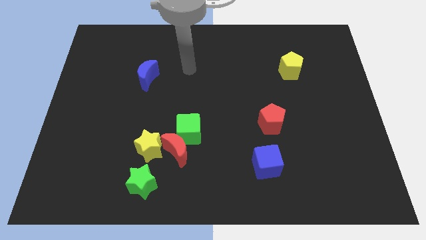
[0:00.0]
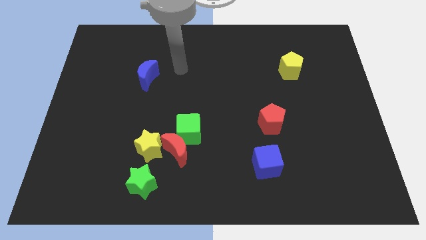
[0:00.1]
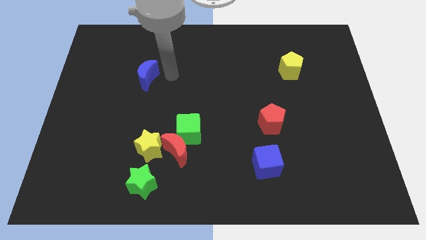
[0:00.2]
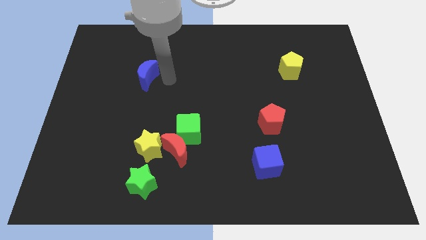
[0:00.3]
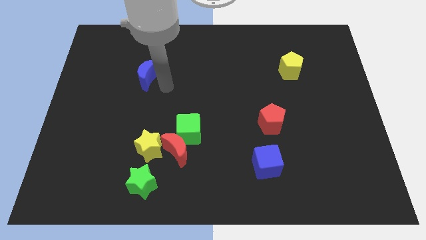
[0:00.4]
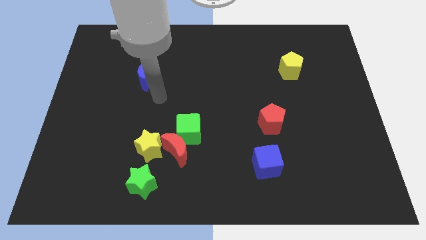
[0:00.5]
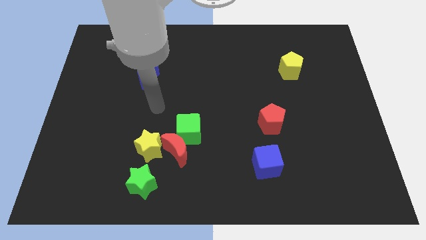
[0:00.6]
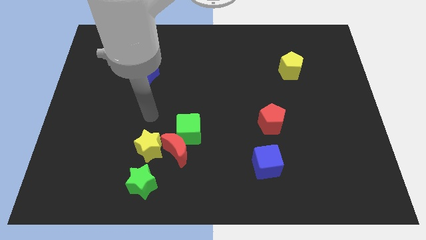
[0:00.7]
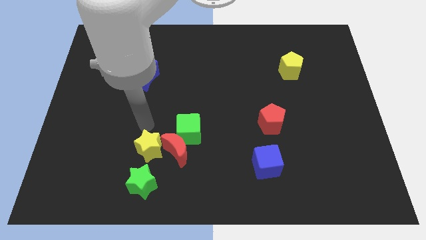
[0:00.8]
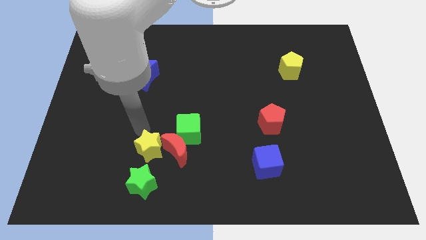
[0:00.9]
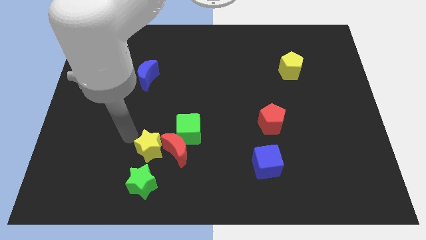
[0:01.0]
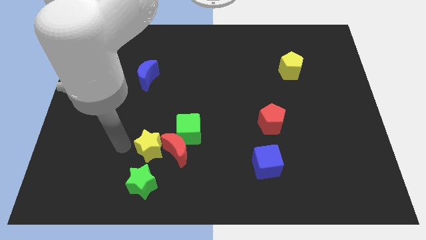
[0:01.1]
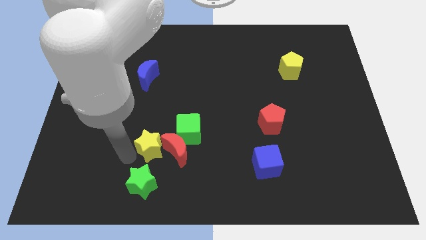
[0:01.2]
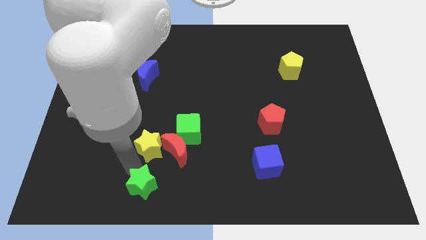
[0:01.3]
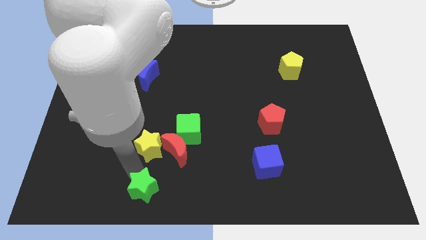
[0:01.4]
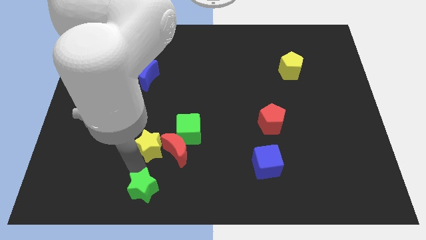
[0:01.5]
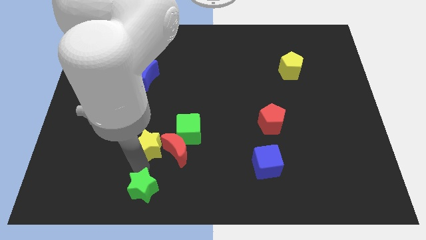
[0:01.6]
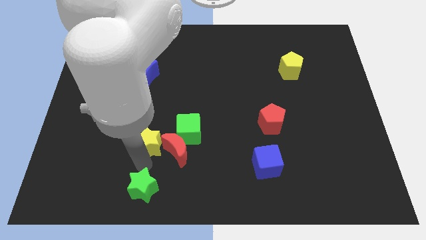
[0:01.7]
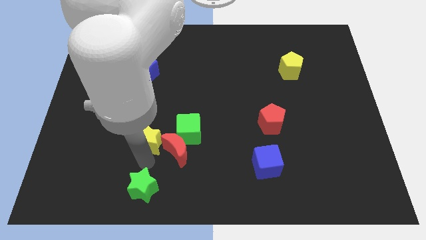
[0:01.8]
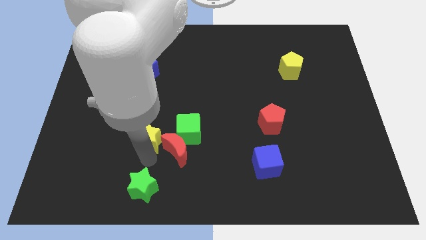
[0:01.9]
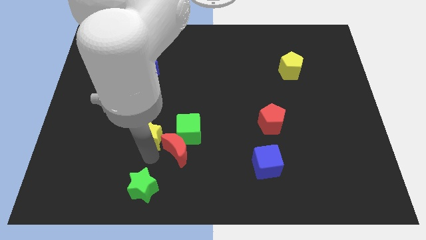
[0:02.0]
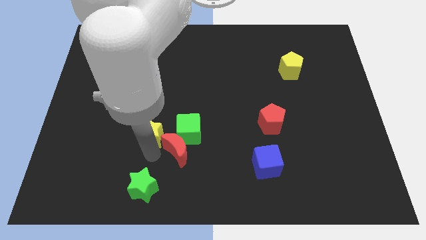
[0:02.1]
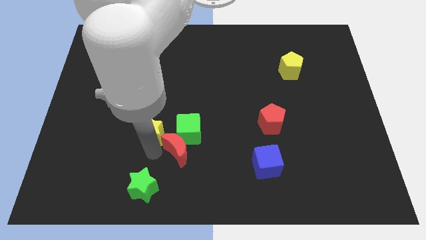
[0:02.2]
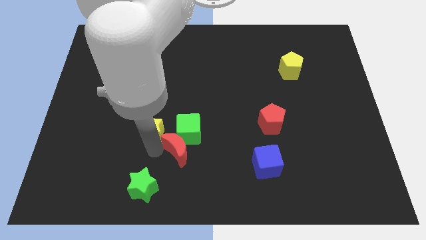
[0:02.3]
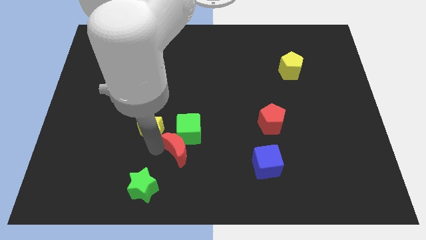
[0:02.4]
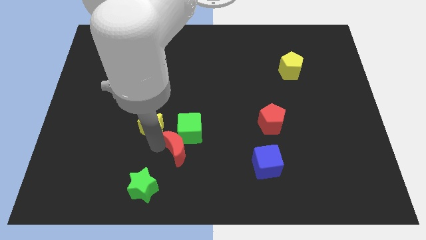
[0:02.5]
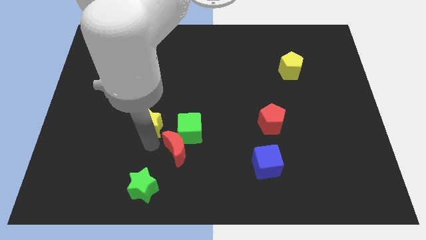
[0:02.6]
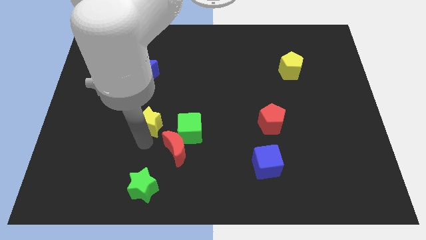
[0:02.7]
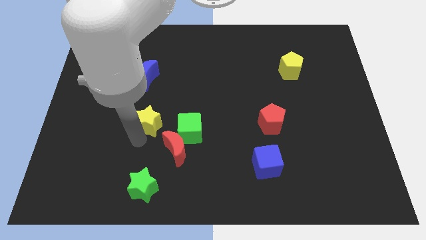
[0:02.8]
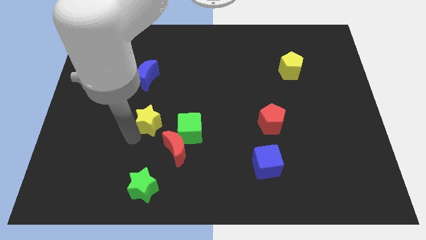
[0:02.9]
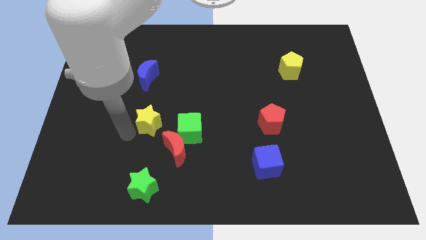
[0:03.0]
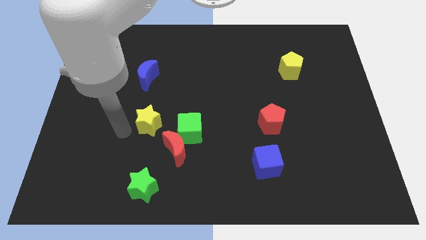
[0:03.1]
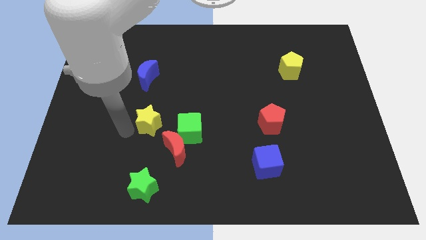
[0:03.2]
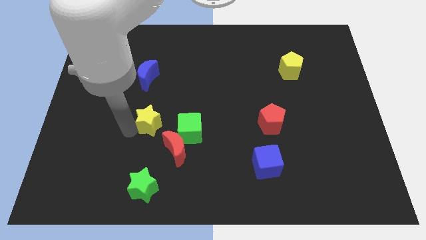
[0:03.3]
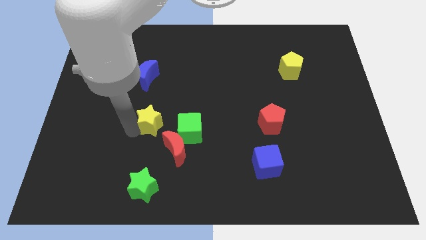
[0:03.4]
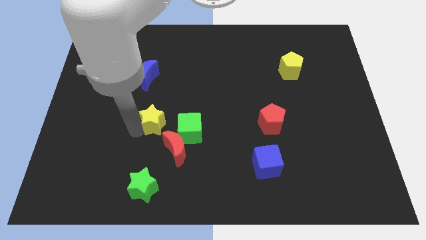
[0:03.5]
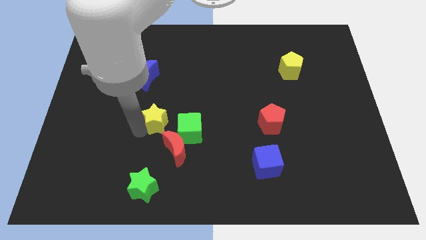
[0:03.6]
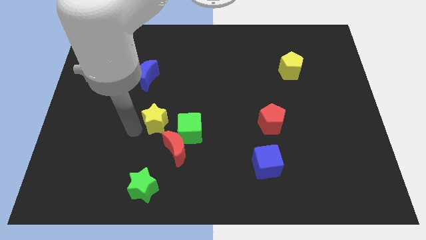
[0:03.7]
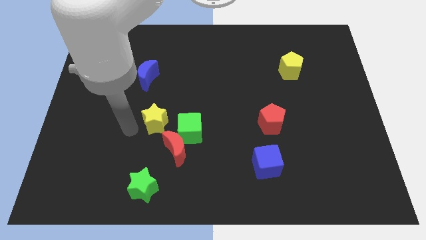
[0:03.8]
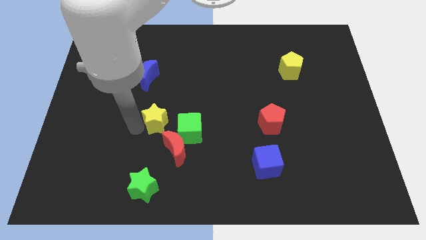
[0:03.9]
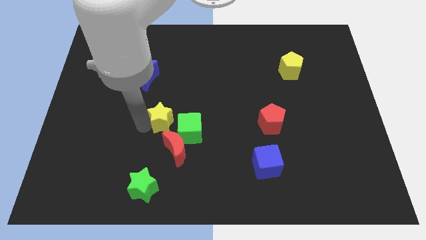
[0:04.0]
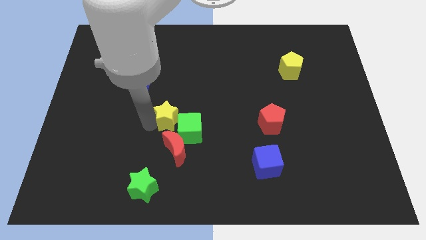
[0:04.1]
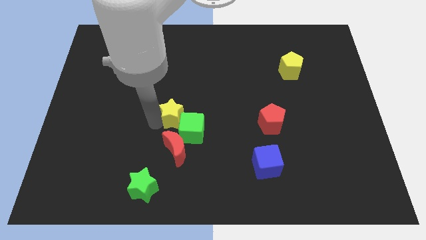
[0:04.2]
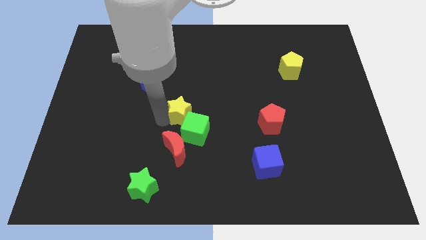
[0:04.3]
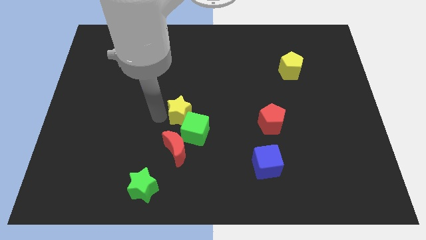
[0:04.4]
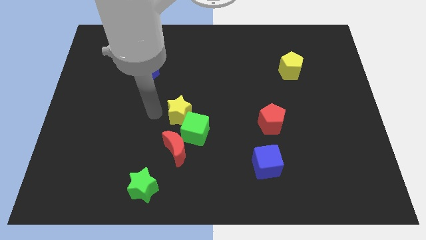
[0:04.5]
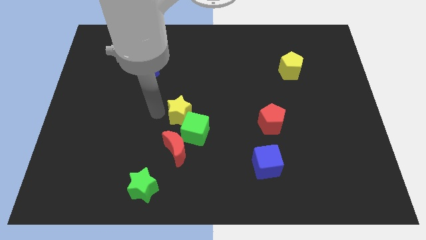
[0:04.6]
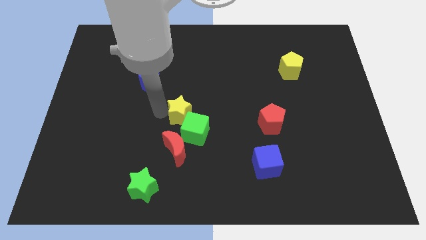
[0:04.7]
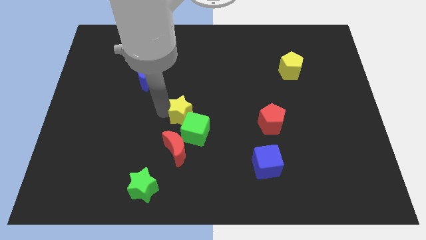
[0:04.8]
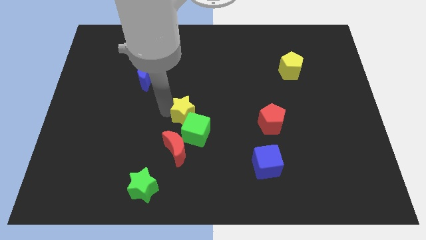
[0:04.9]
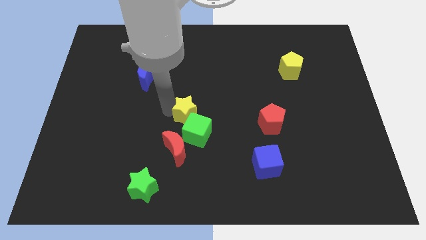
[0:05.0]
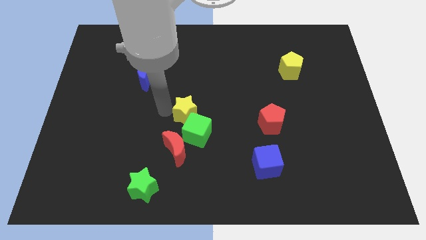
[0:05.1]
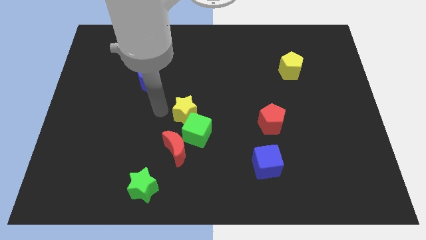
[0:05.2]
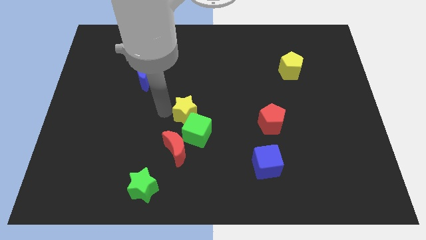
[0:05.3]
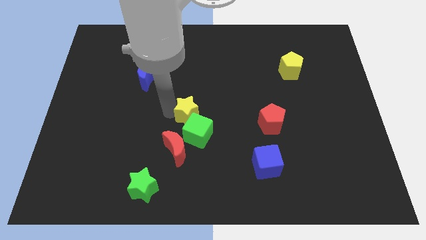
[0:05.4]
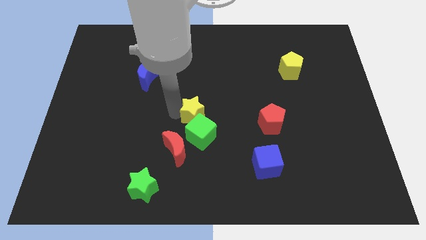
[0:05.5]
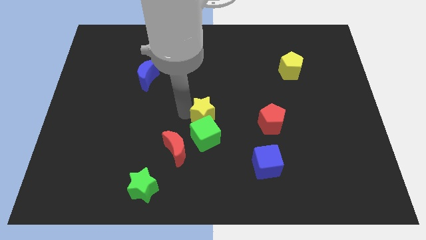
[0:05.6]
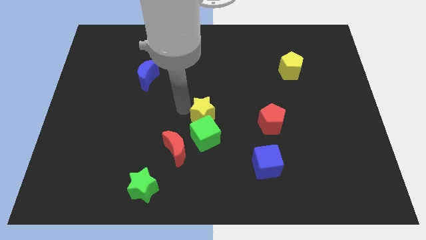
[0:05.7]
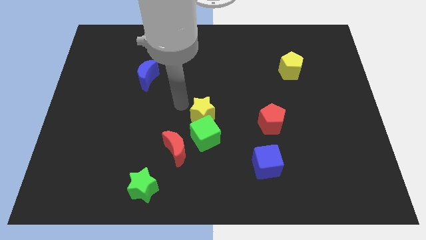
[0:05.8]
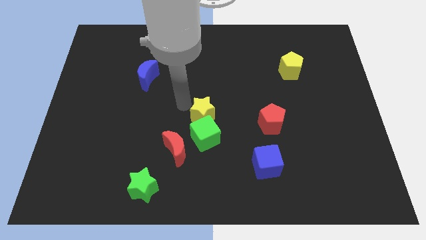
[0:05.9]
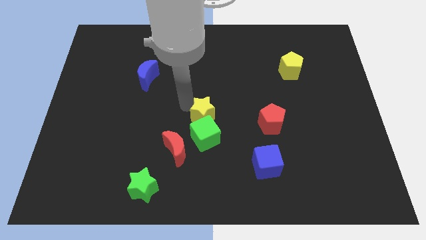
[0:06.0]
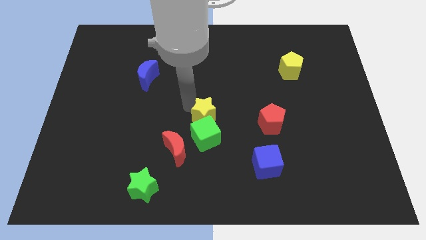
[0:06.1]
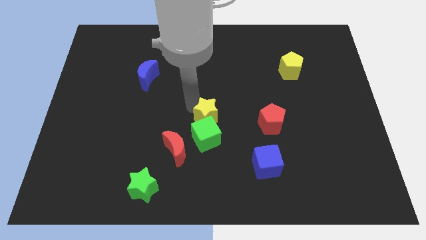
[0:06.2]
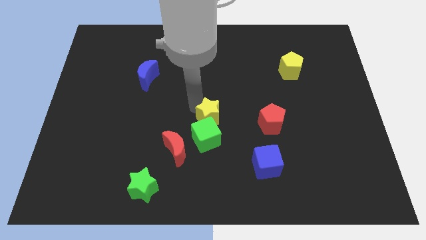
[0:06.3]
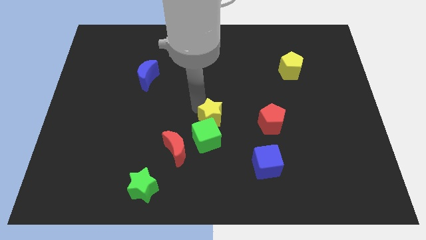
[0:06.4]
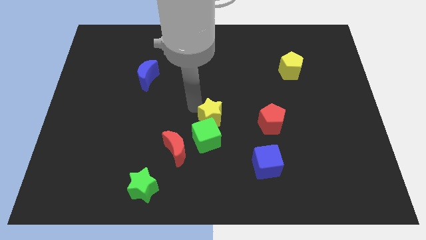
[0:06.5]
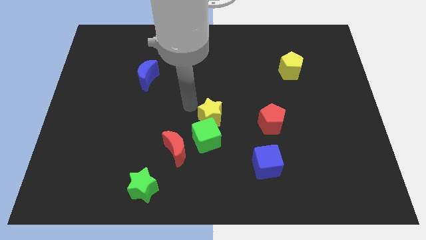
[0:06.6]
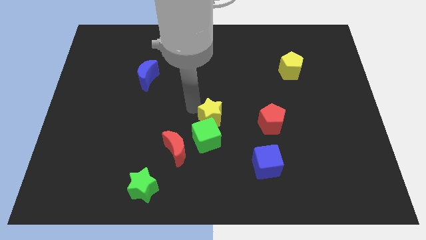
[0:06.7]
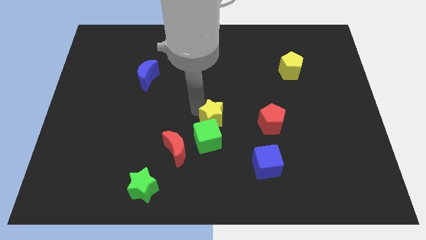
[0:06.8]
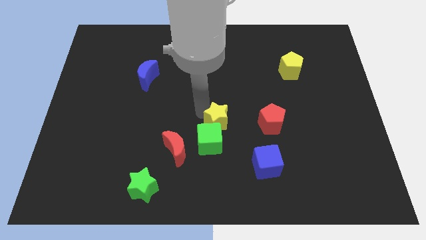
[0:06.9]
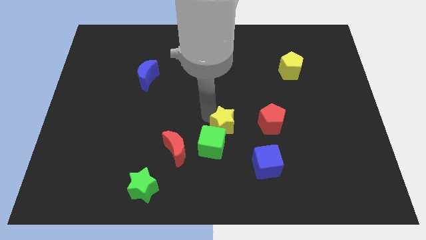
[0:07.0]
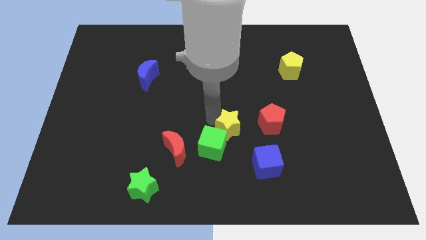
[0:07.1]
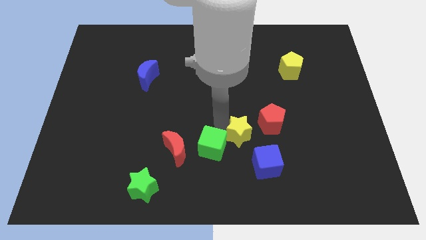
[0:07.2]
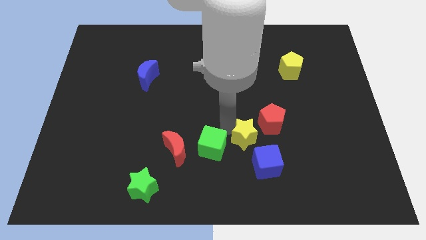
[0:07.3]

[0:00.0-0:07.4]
push the yellow star right

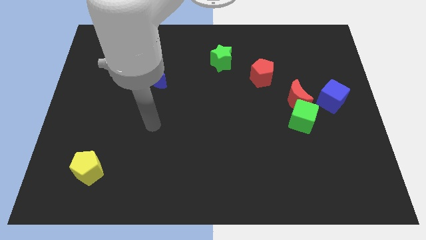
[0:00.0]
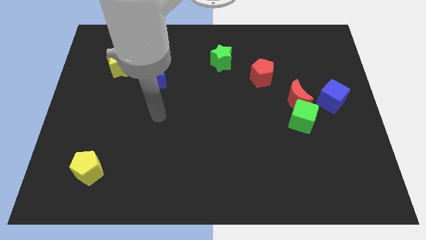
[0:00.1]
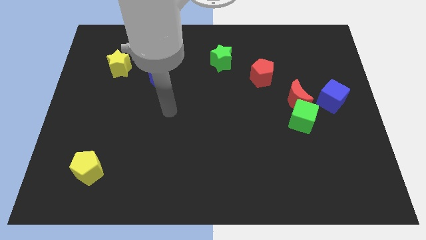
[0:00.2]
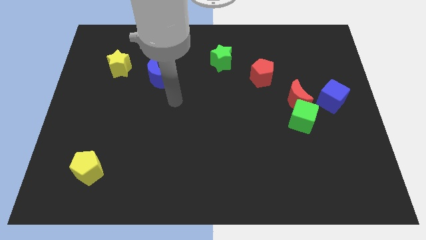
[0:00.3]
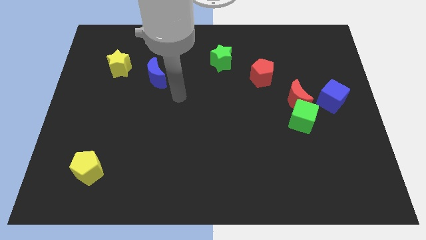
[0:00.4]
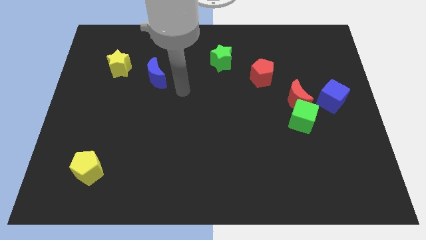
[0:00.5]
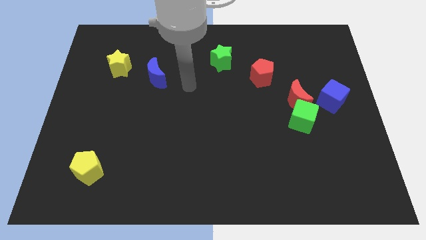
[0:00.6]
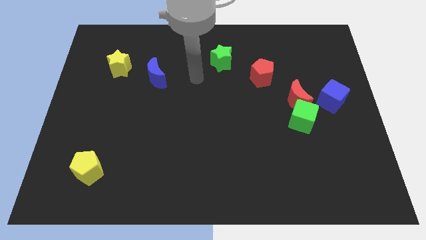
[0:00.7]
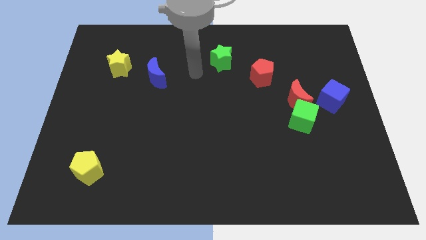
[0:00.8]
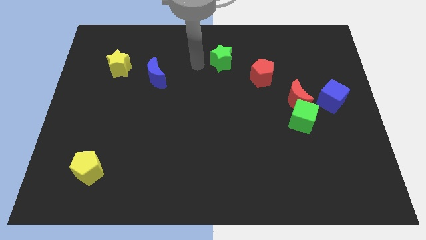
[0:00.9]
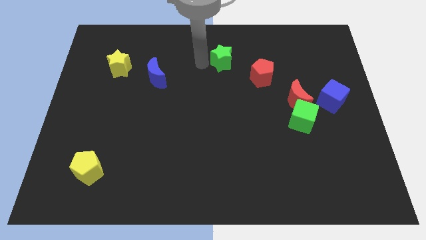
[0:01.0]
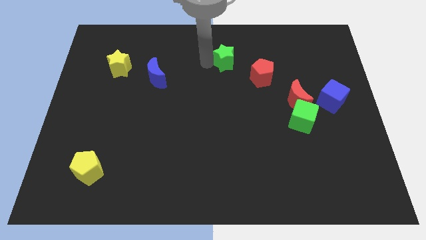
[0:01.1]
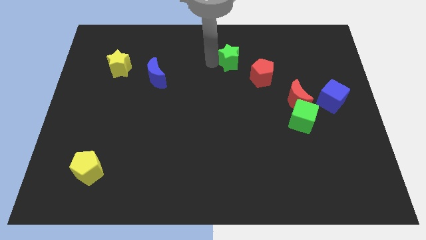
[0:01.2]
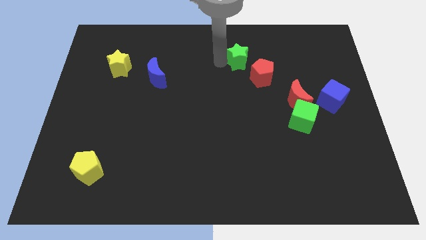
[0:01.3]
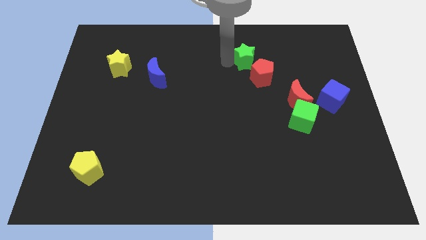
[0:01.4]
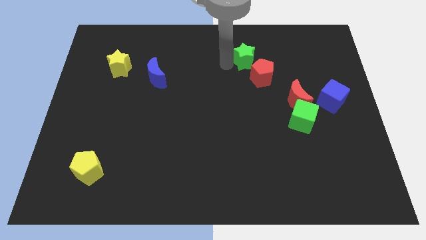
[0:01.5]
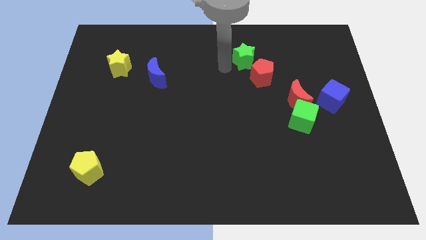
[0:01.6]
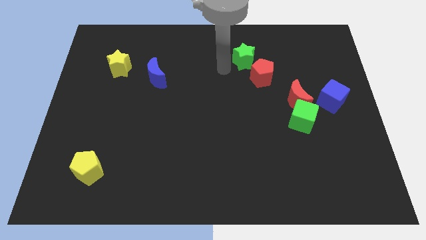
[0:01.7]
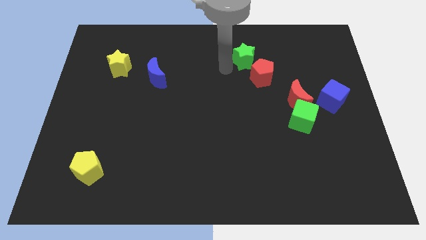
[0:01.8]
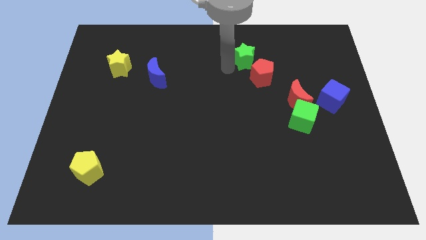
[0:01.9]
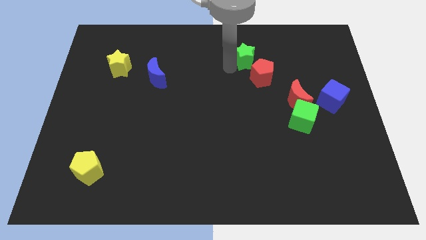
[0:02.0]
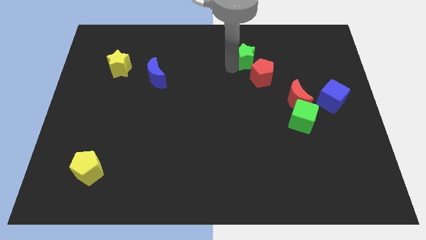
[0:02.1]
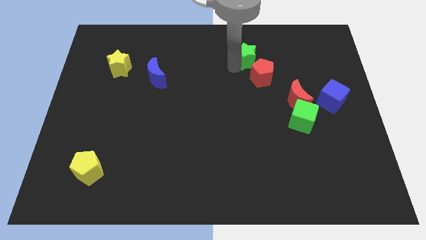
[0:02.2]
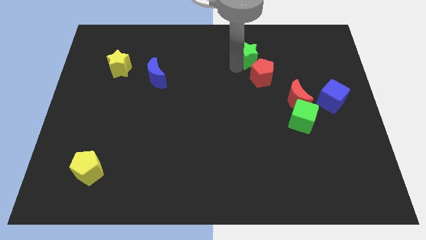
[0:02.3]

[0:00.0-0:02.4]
move the green star slightly to the right
